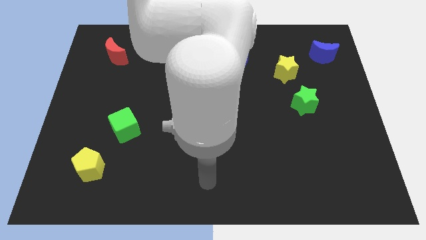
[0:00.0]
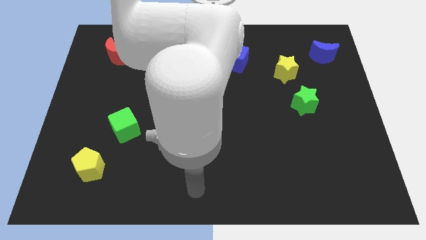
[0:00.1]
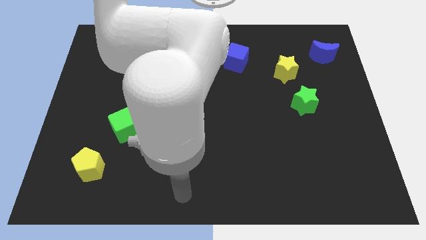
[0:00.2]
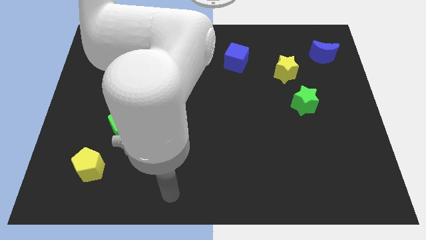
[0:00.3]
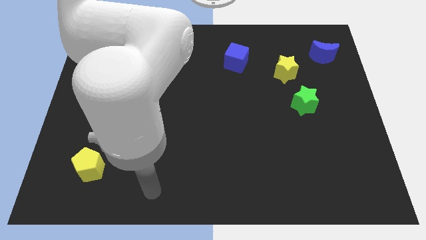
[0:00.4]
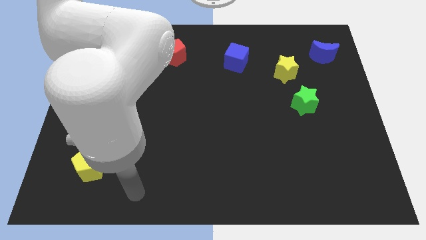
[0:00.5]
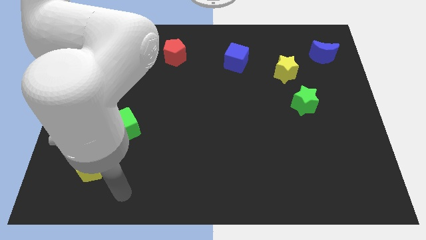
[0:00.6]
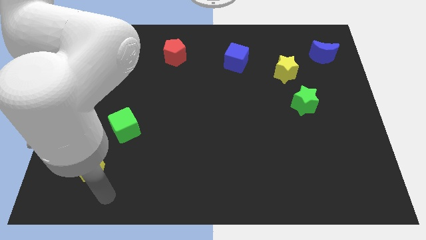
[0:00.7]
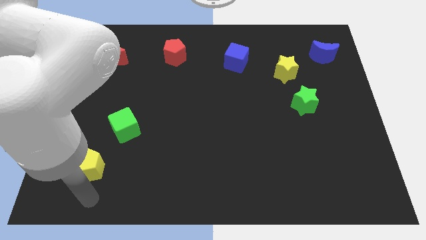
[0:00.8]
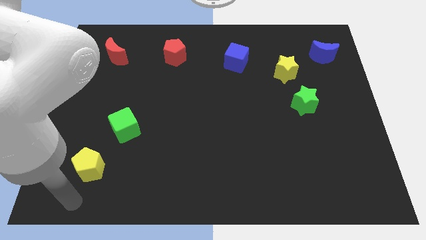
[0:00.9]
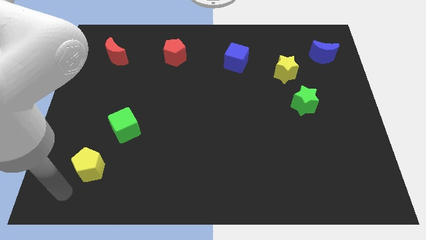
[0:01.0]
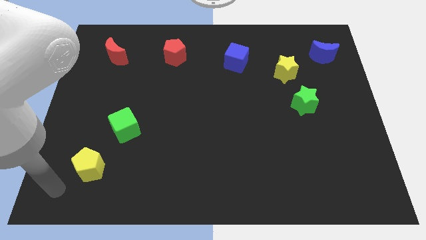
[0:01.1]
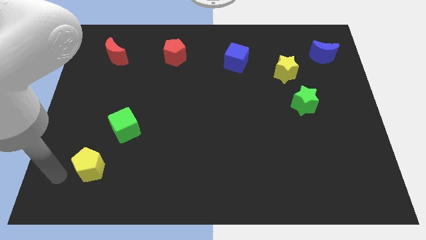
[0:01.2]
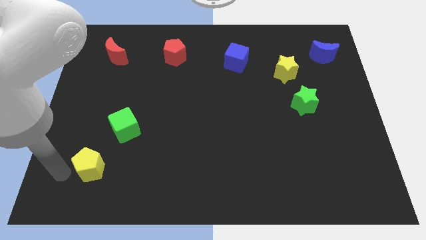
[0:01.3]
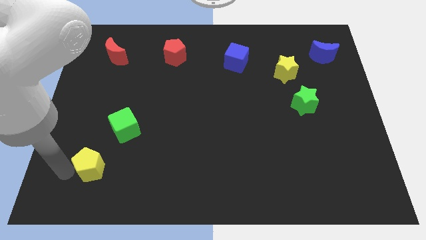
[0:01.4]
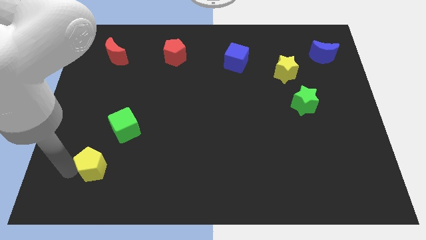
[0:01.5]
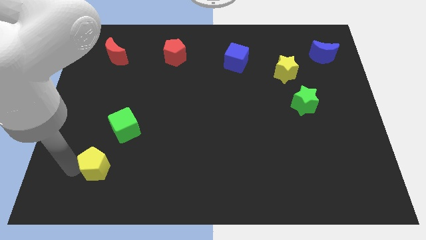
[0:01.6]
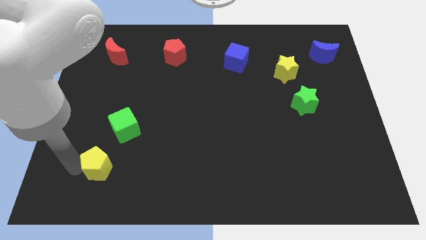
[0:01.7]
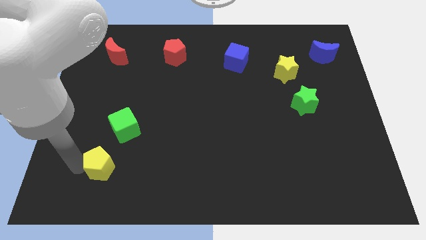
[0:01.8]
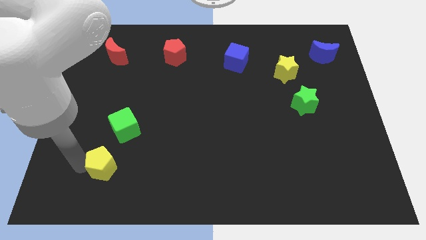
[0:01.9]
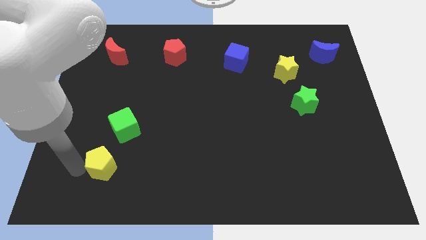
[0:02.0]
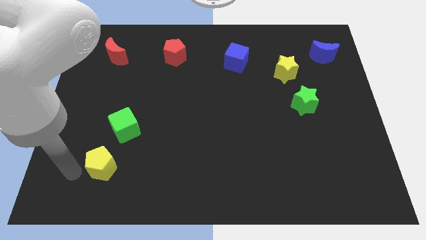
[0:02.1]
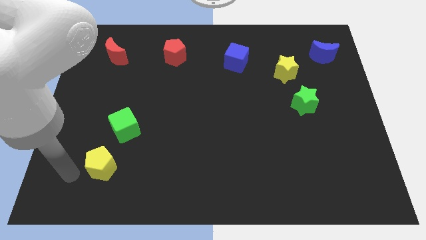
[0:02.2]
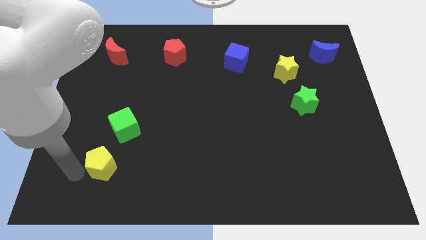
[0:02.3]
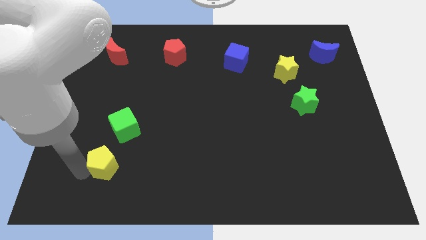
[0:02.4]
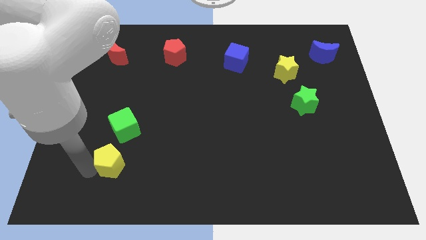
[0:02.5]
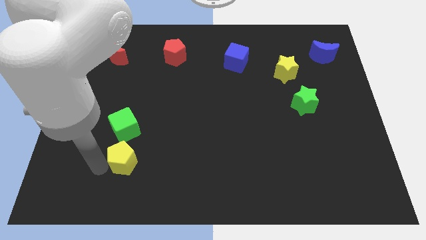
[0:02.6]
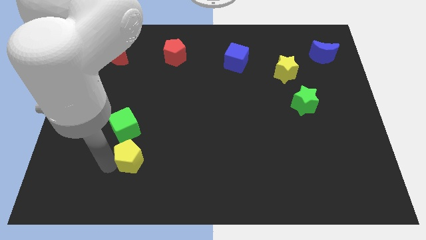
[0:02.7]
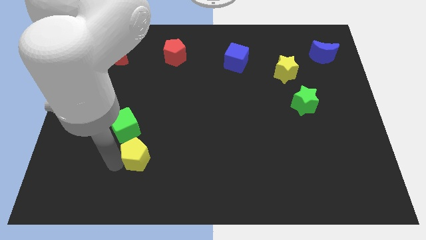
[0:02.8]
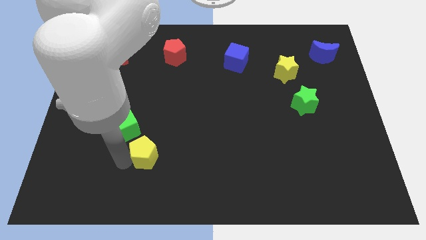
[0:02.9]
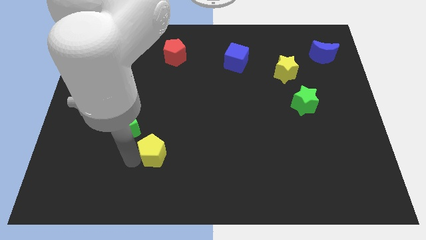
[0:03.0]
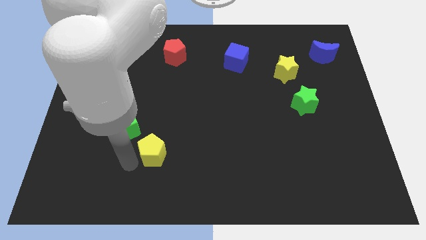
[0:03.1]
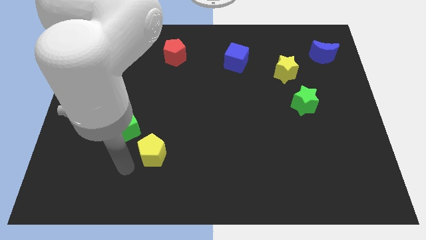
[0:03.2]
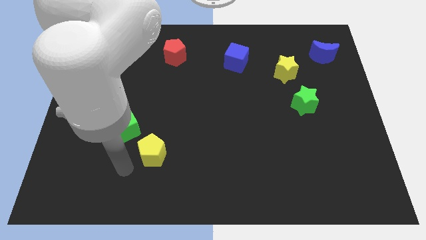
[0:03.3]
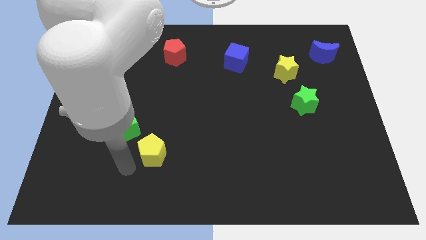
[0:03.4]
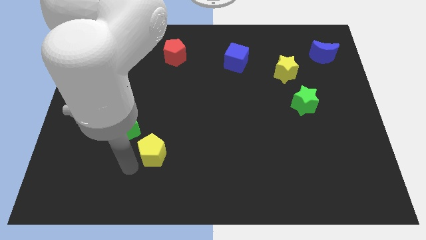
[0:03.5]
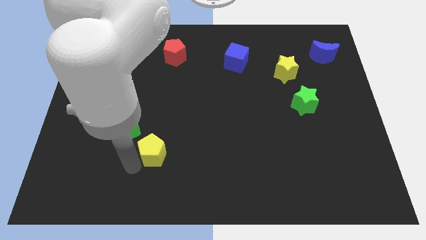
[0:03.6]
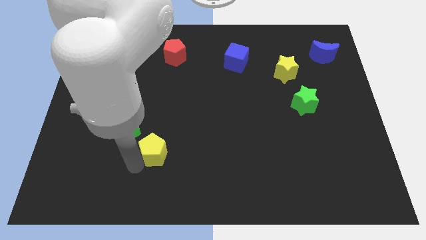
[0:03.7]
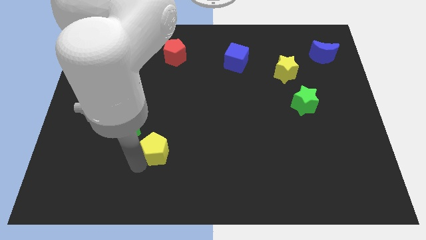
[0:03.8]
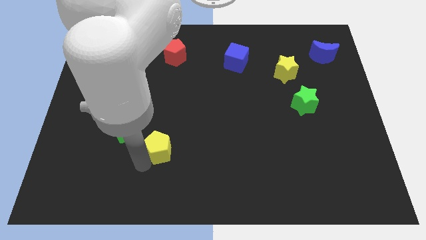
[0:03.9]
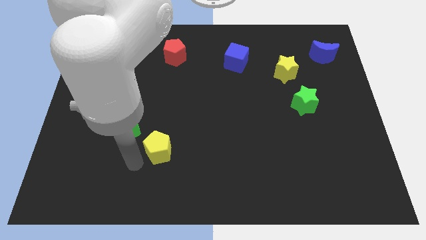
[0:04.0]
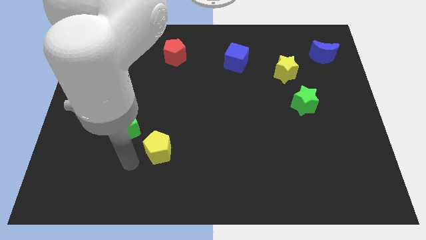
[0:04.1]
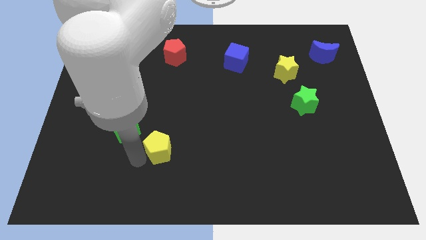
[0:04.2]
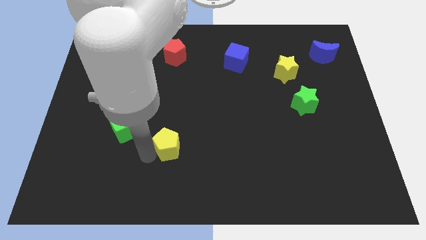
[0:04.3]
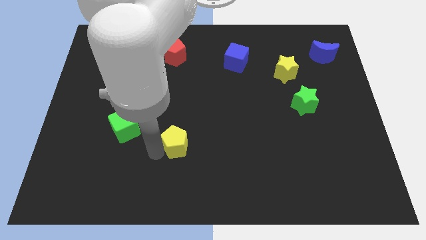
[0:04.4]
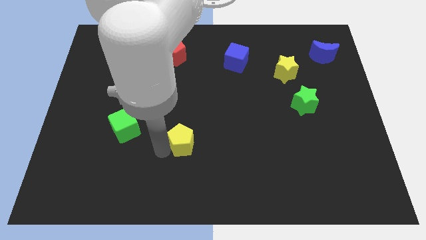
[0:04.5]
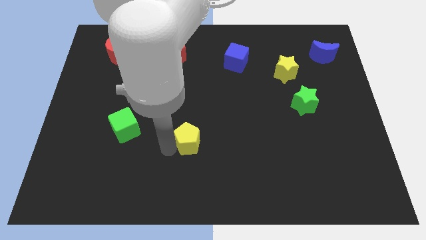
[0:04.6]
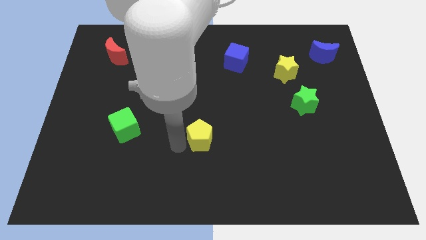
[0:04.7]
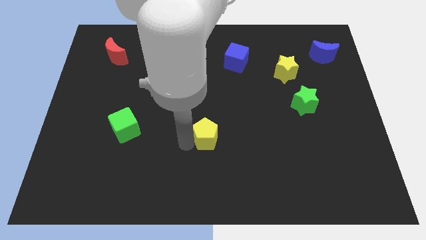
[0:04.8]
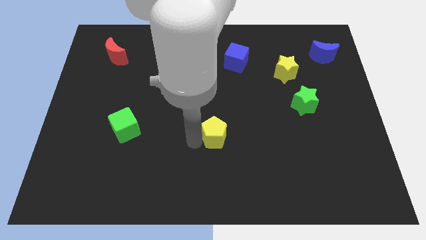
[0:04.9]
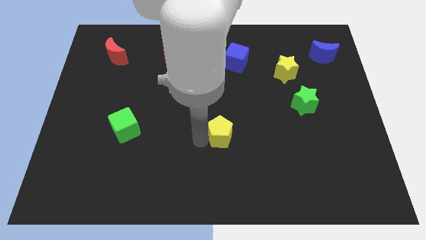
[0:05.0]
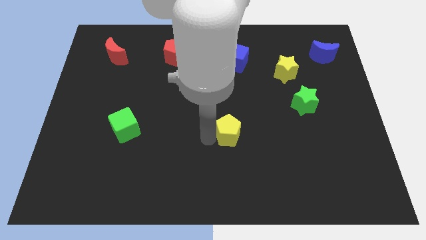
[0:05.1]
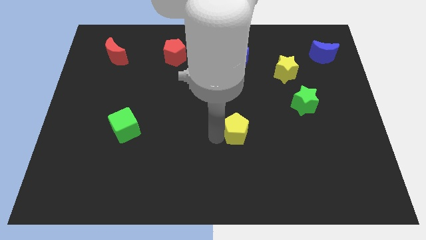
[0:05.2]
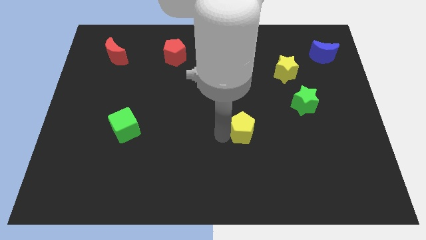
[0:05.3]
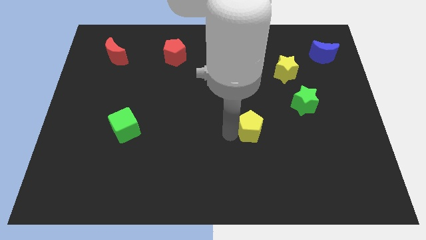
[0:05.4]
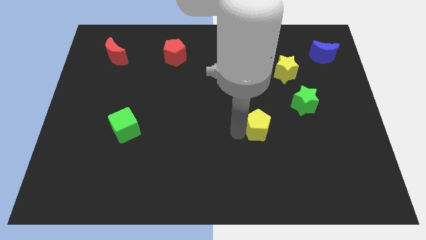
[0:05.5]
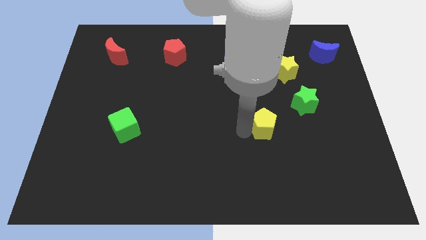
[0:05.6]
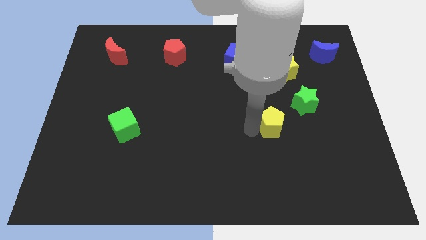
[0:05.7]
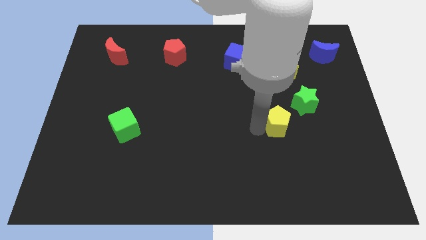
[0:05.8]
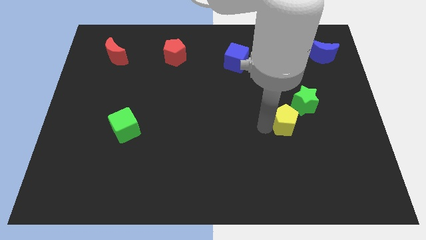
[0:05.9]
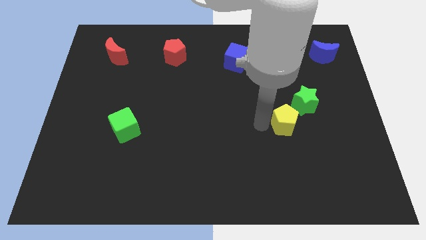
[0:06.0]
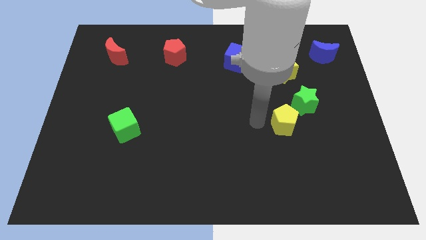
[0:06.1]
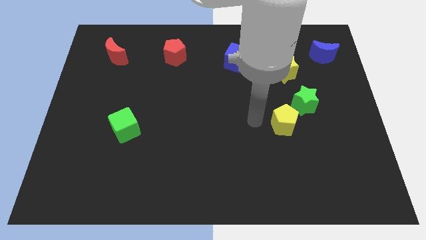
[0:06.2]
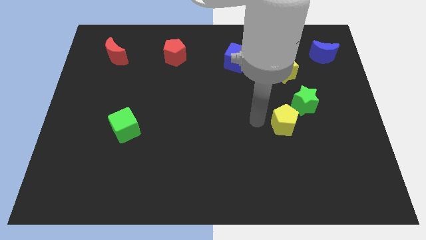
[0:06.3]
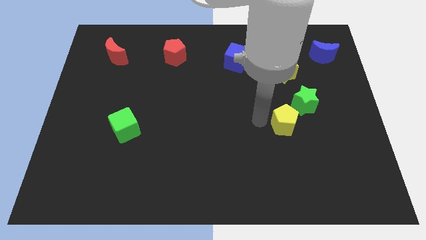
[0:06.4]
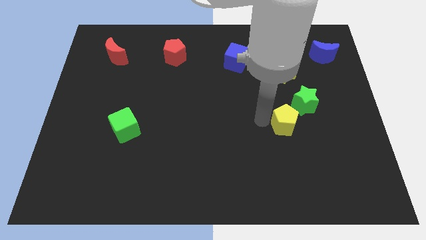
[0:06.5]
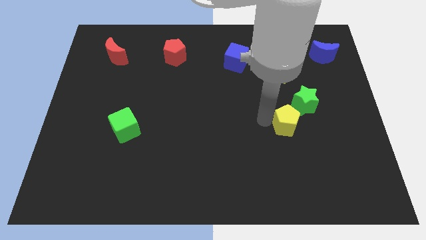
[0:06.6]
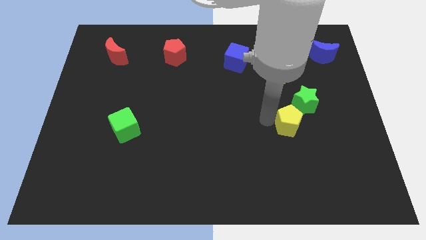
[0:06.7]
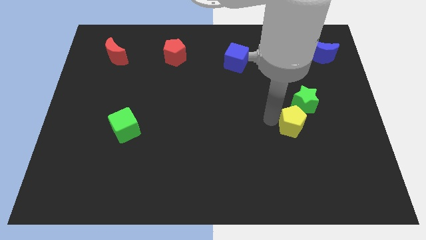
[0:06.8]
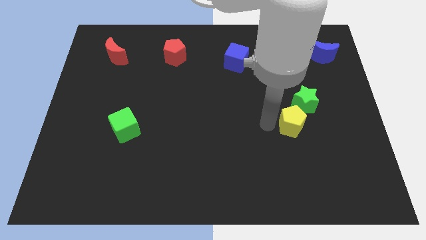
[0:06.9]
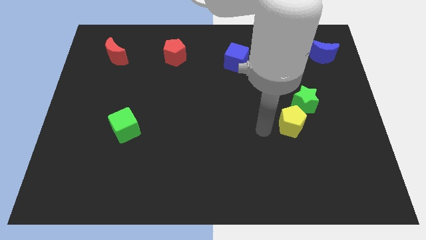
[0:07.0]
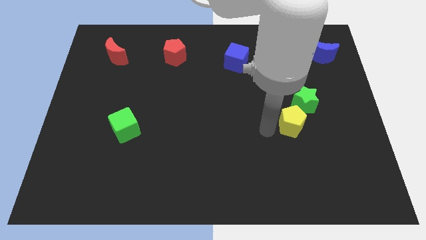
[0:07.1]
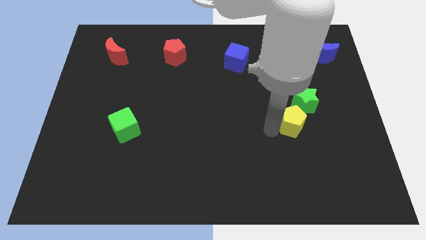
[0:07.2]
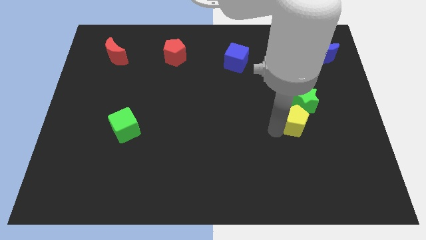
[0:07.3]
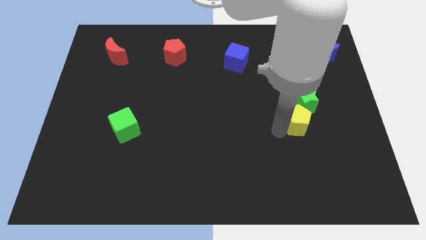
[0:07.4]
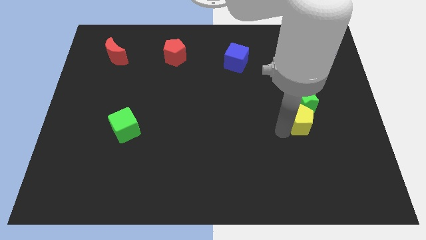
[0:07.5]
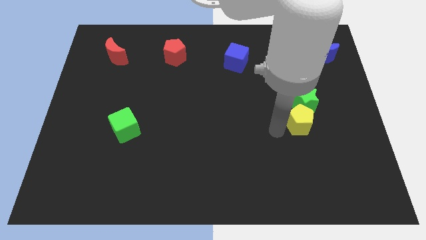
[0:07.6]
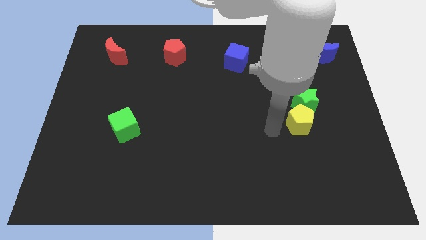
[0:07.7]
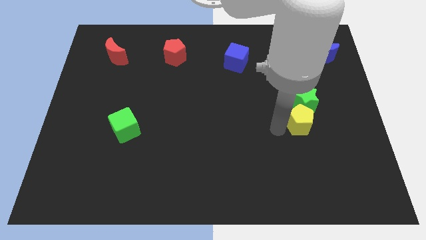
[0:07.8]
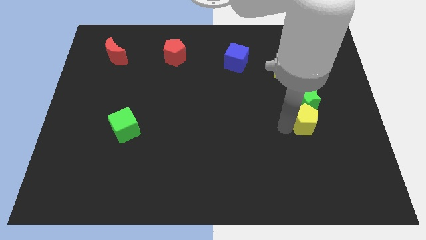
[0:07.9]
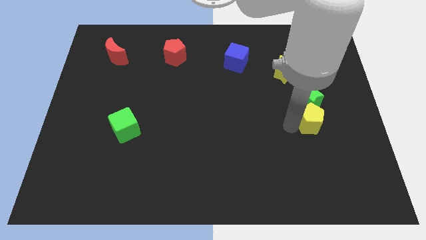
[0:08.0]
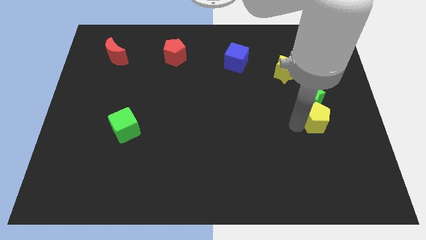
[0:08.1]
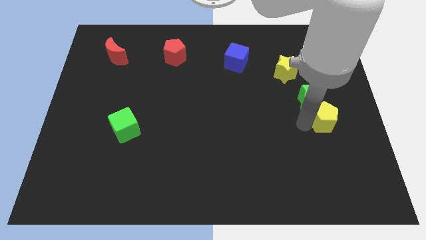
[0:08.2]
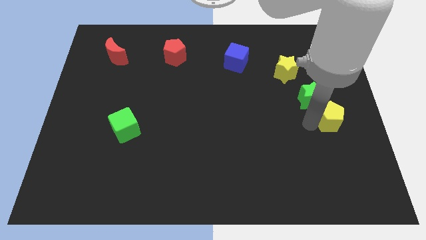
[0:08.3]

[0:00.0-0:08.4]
push the yellow pentagon to the center right
